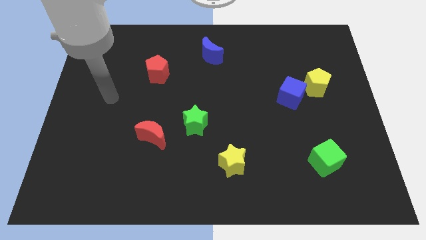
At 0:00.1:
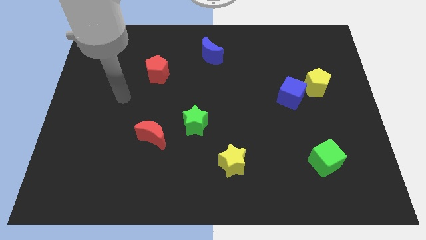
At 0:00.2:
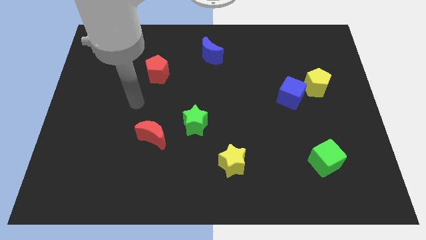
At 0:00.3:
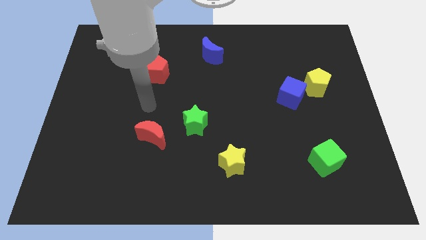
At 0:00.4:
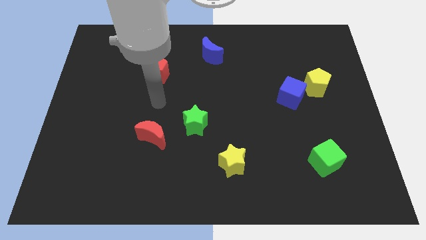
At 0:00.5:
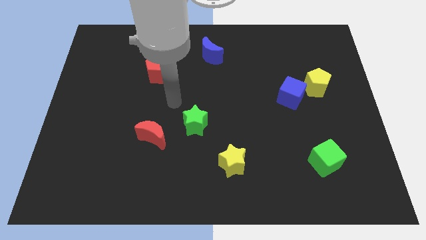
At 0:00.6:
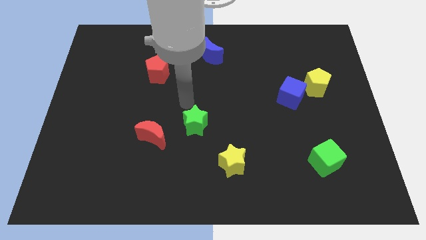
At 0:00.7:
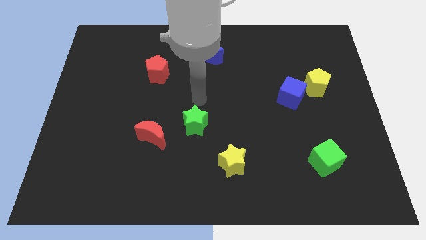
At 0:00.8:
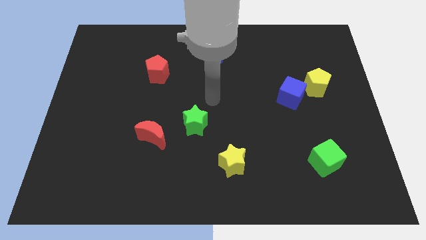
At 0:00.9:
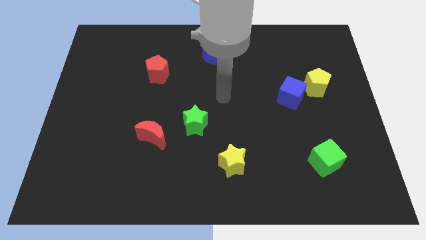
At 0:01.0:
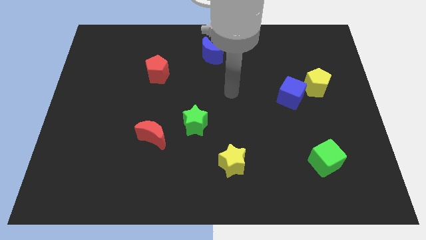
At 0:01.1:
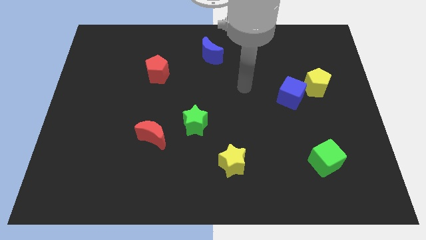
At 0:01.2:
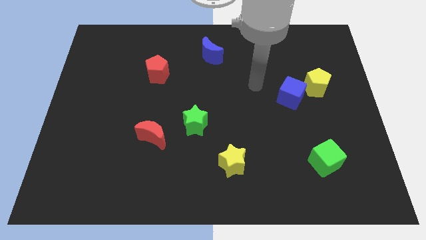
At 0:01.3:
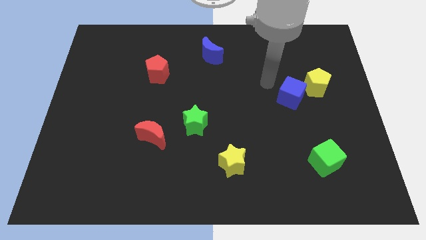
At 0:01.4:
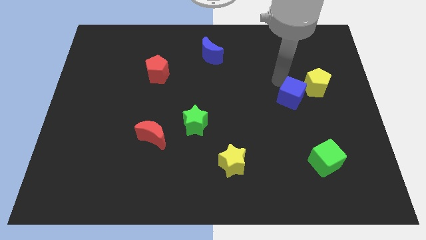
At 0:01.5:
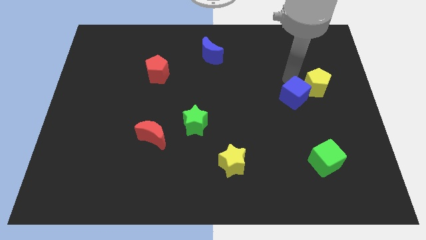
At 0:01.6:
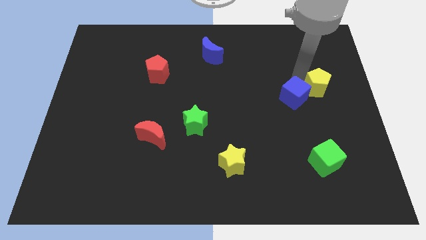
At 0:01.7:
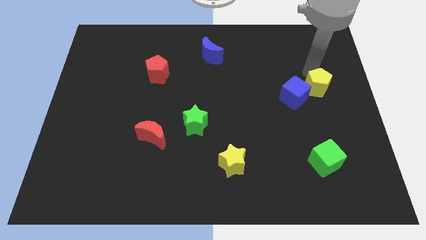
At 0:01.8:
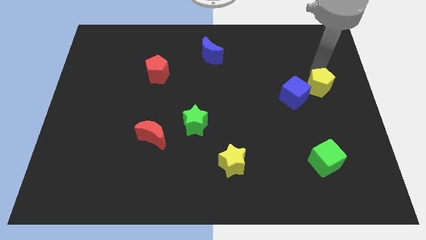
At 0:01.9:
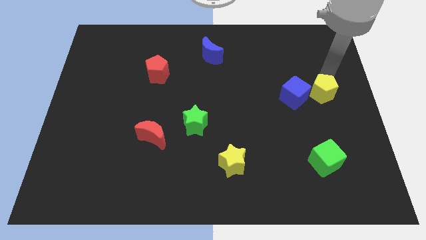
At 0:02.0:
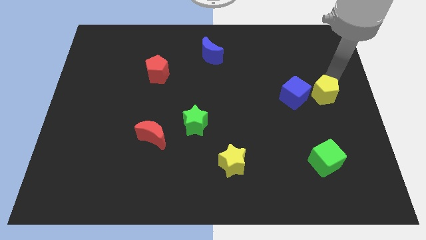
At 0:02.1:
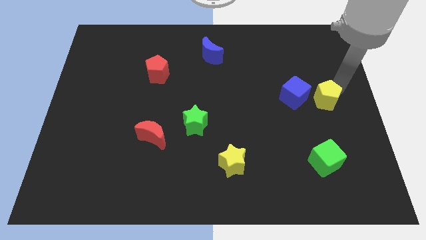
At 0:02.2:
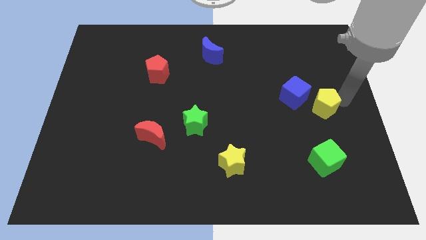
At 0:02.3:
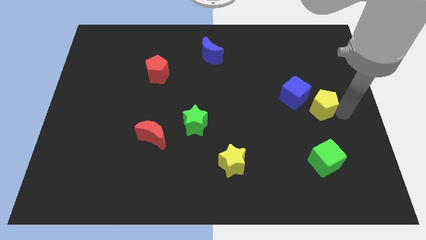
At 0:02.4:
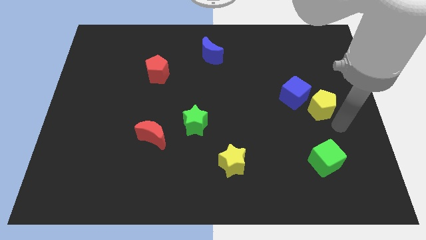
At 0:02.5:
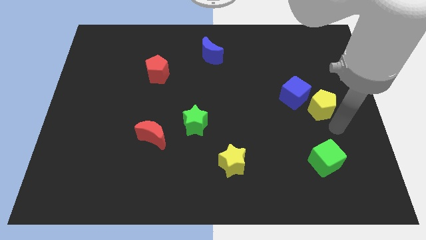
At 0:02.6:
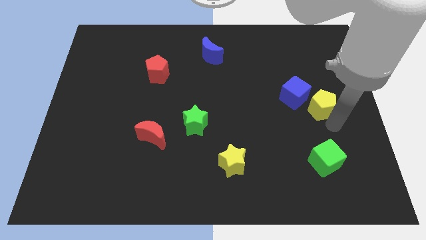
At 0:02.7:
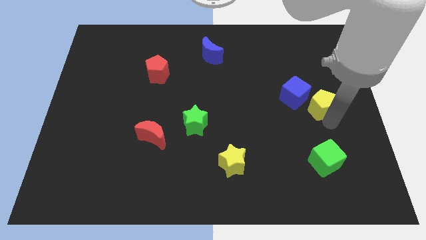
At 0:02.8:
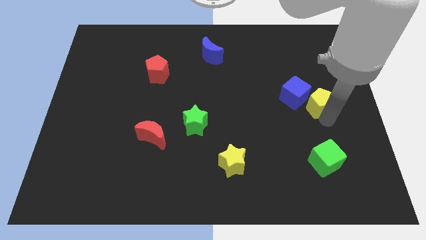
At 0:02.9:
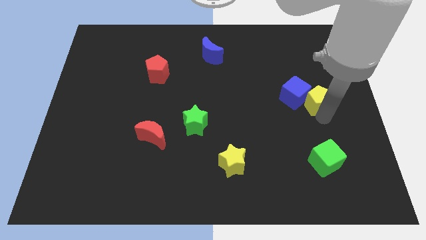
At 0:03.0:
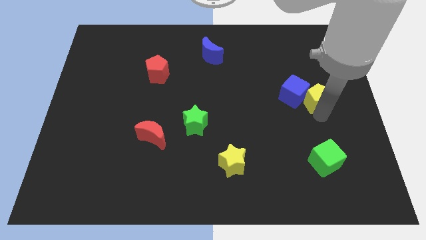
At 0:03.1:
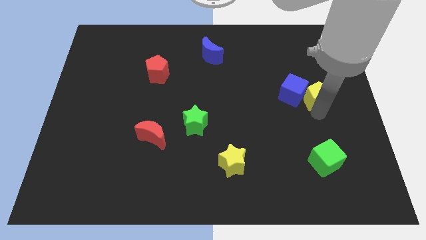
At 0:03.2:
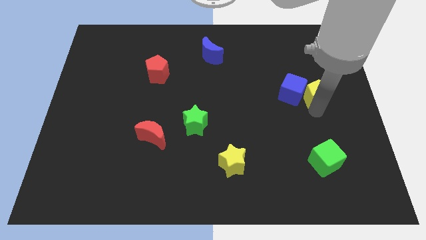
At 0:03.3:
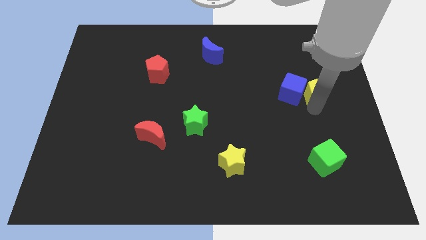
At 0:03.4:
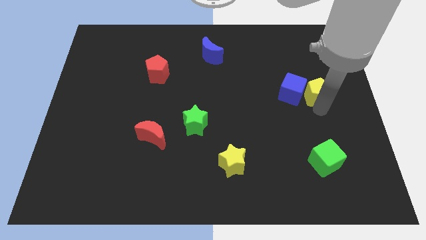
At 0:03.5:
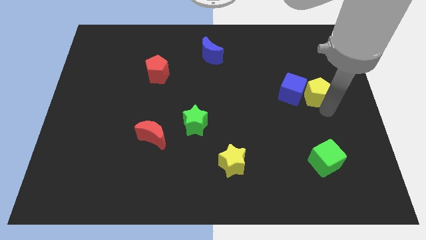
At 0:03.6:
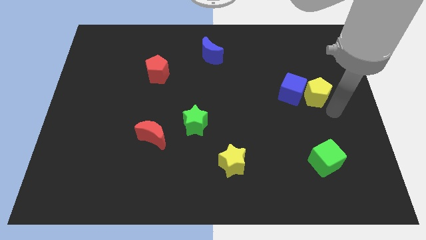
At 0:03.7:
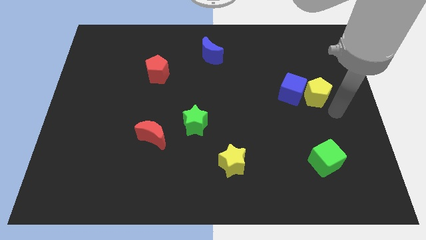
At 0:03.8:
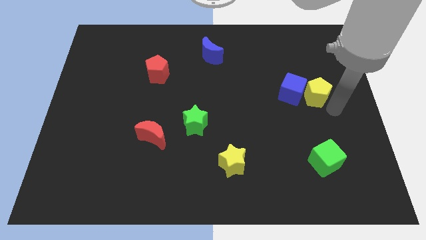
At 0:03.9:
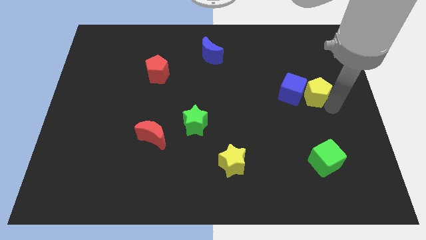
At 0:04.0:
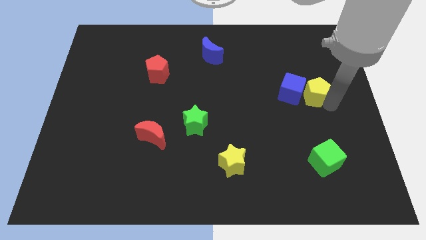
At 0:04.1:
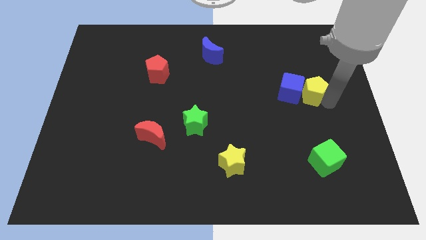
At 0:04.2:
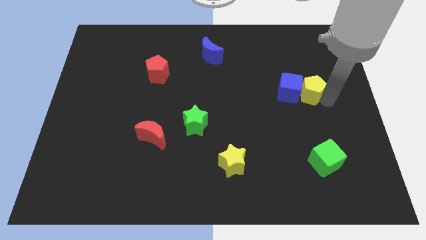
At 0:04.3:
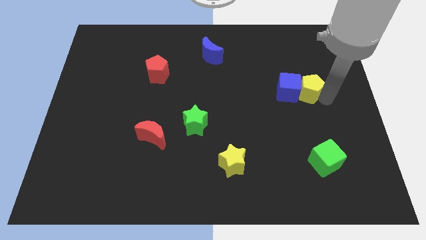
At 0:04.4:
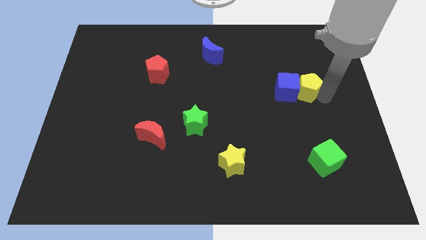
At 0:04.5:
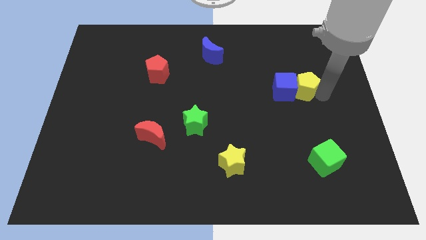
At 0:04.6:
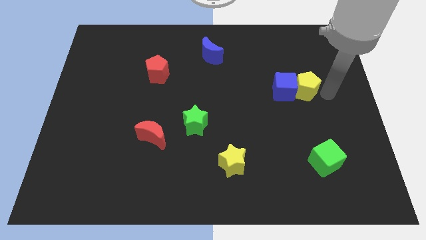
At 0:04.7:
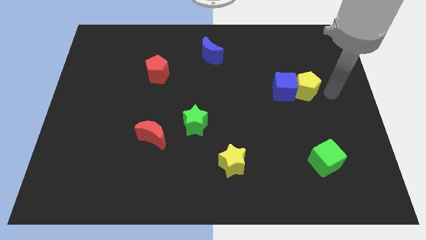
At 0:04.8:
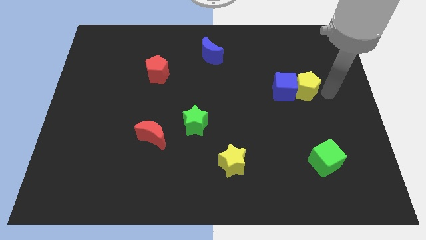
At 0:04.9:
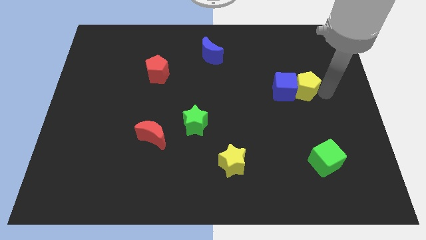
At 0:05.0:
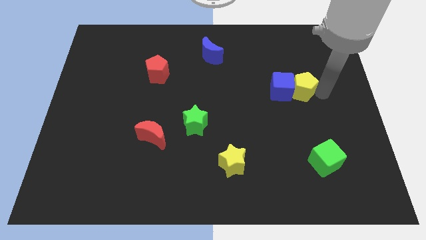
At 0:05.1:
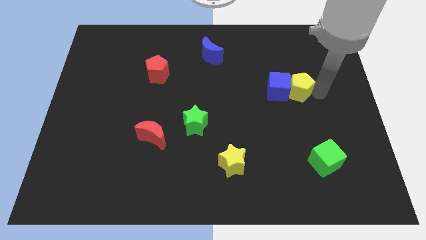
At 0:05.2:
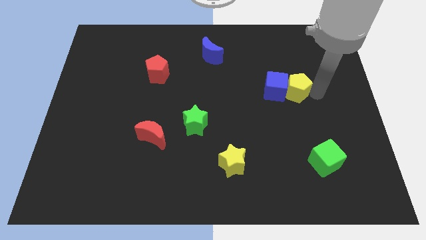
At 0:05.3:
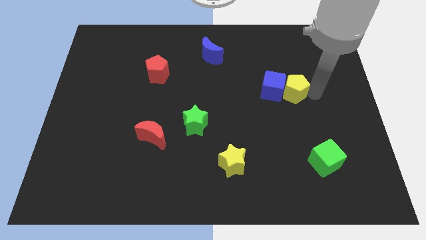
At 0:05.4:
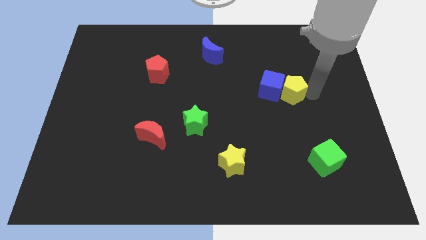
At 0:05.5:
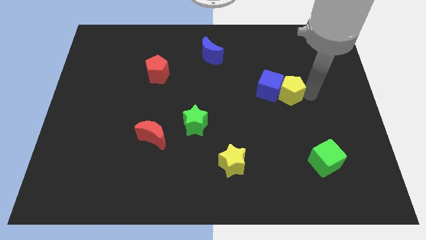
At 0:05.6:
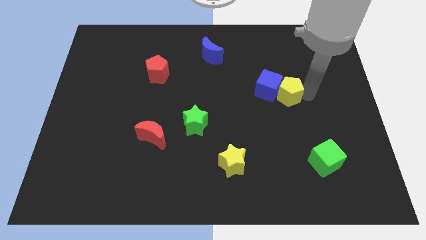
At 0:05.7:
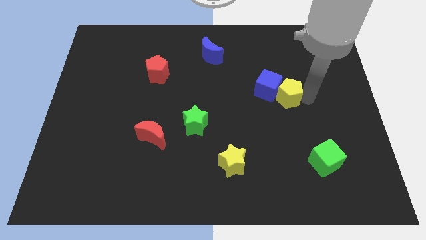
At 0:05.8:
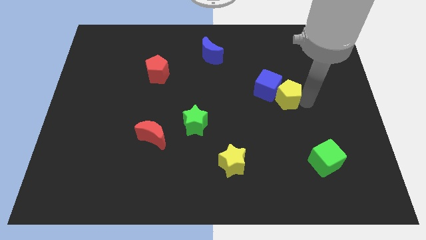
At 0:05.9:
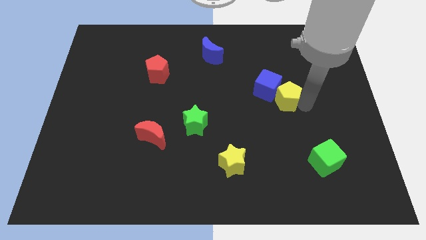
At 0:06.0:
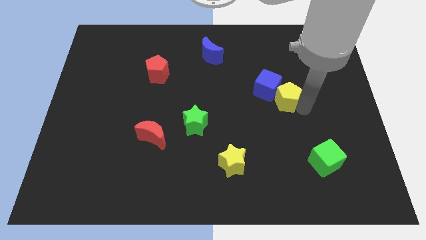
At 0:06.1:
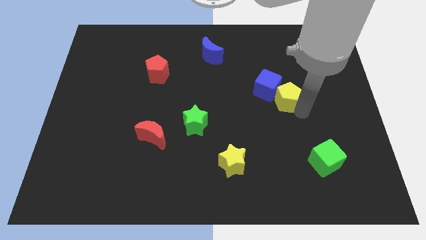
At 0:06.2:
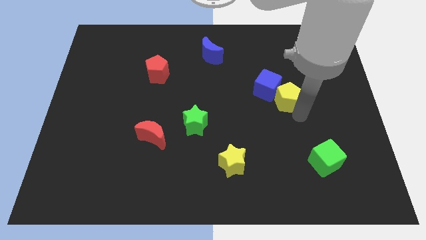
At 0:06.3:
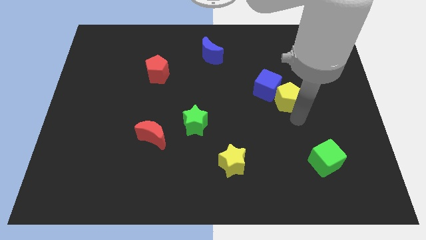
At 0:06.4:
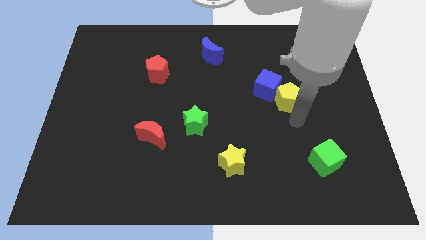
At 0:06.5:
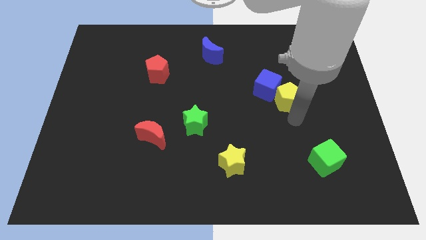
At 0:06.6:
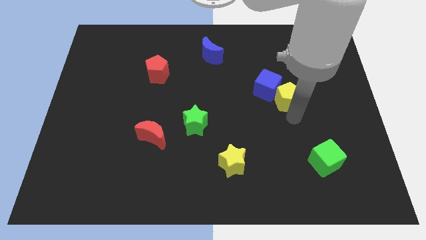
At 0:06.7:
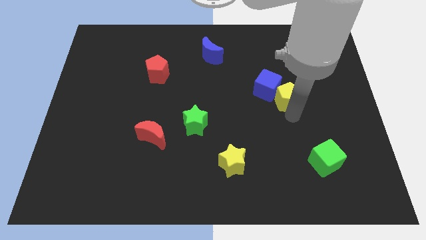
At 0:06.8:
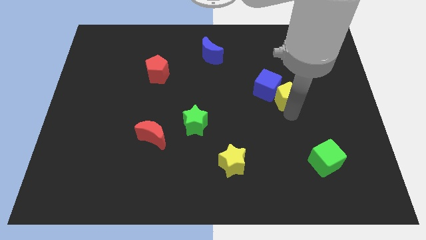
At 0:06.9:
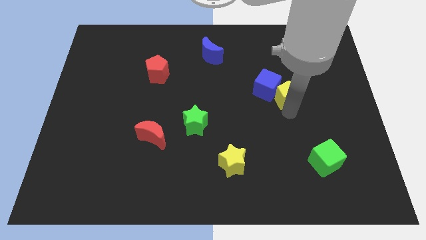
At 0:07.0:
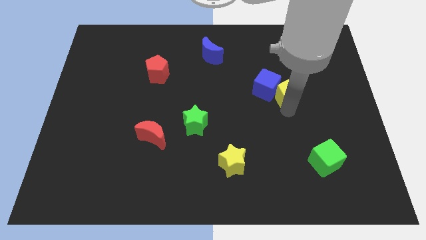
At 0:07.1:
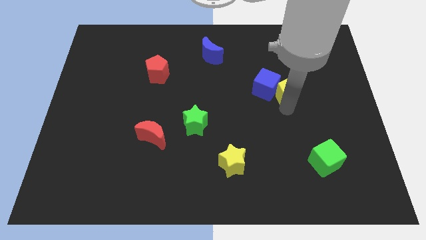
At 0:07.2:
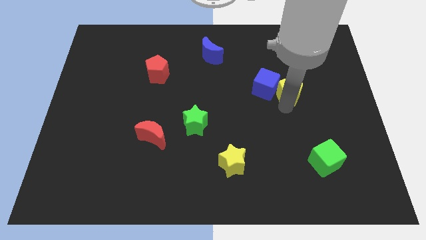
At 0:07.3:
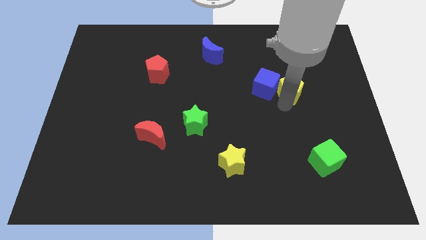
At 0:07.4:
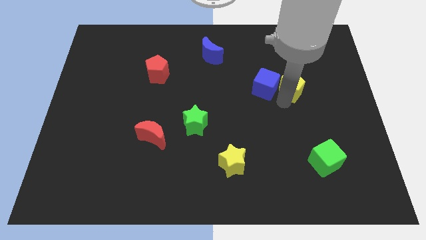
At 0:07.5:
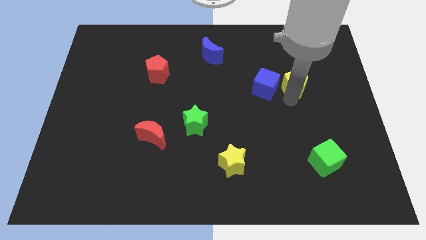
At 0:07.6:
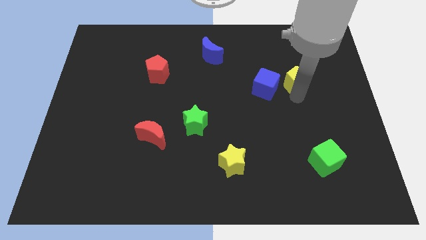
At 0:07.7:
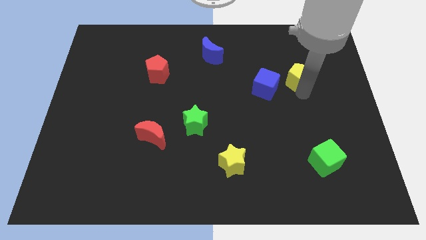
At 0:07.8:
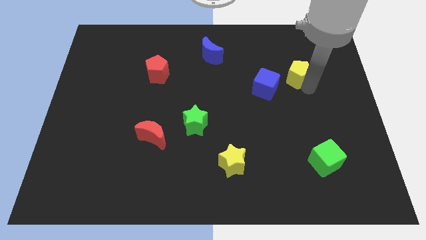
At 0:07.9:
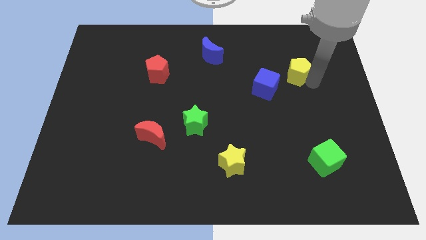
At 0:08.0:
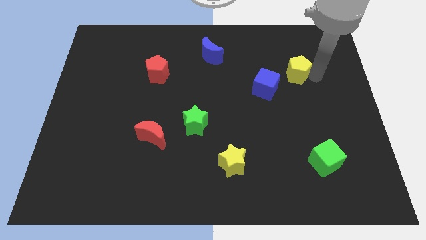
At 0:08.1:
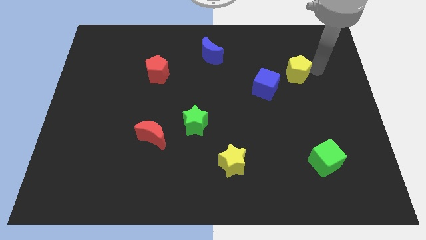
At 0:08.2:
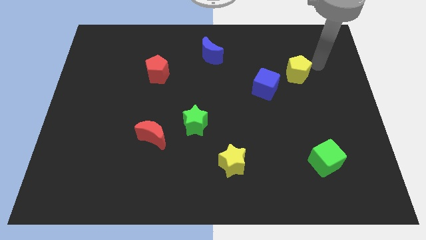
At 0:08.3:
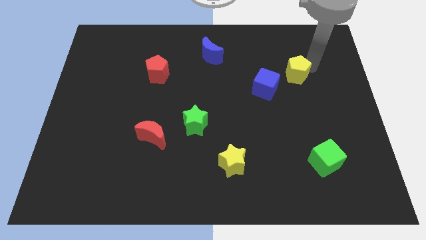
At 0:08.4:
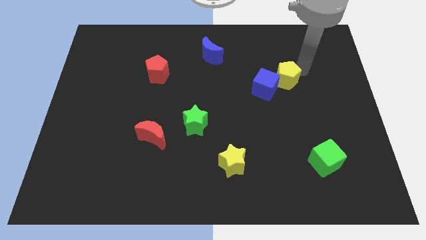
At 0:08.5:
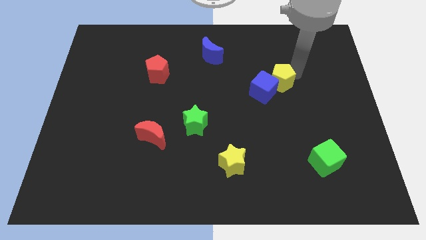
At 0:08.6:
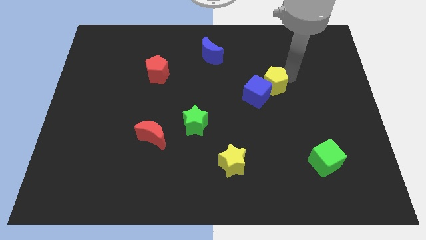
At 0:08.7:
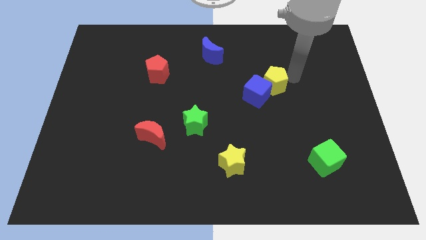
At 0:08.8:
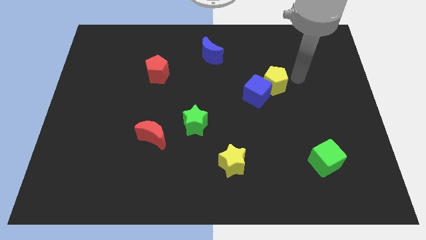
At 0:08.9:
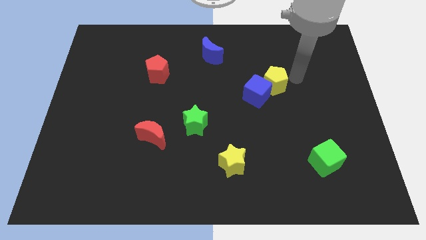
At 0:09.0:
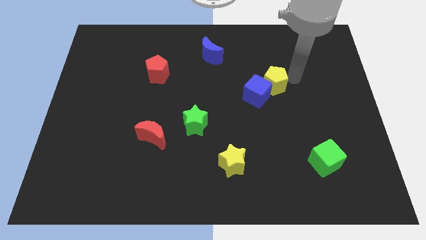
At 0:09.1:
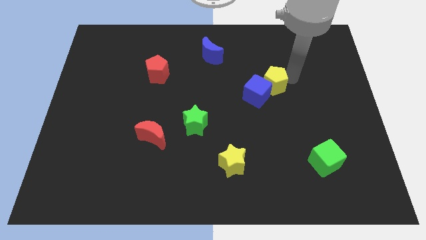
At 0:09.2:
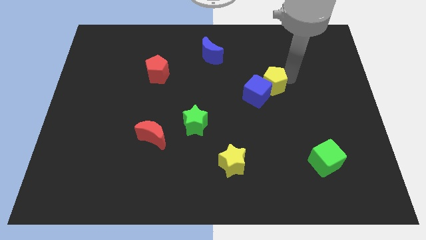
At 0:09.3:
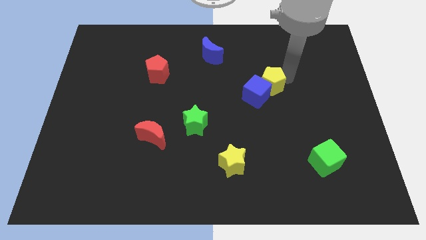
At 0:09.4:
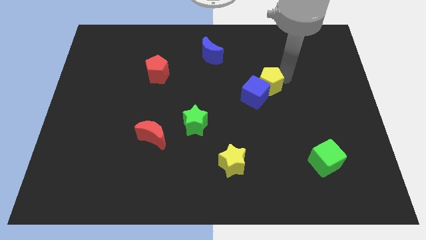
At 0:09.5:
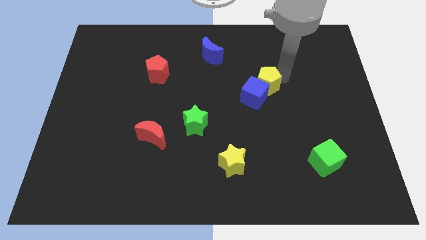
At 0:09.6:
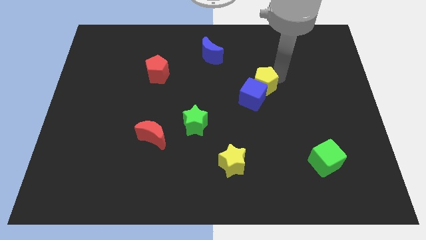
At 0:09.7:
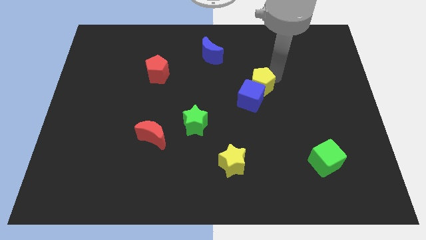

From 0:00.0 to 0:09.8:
slide the yellow pentagon to the center of the board
